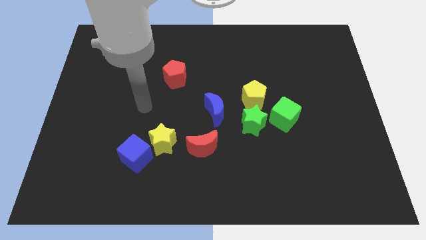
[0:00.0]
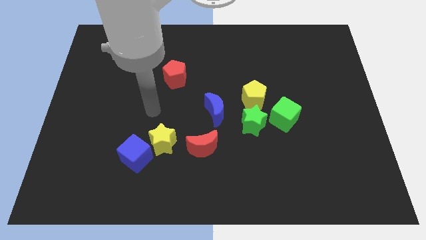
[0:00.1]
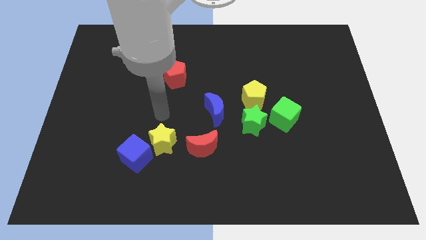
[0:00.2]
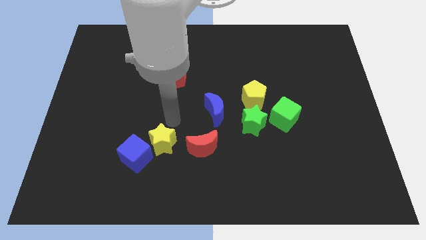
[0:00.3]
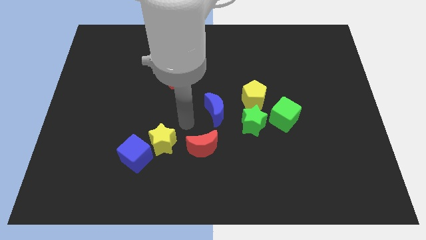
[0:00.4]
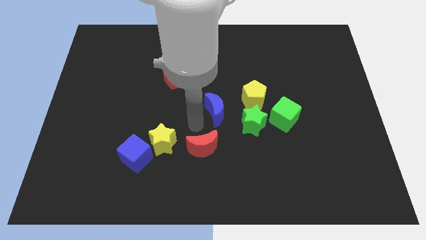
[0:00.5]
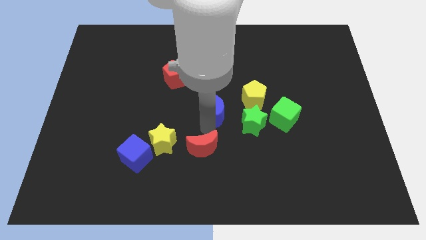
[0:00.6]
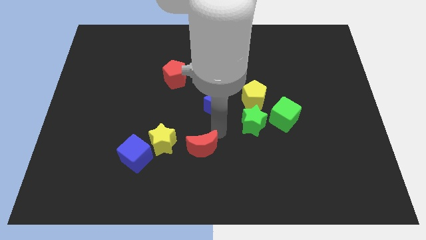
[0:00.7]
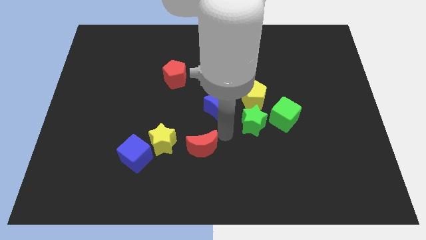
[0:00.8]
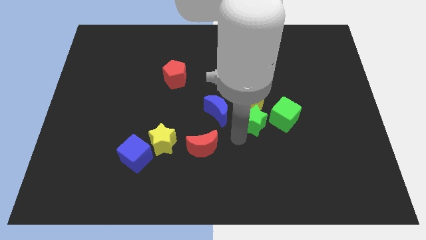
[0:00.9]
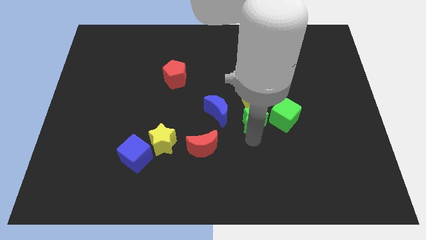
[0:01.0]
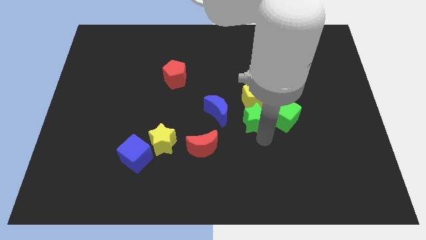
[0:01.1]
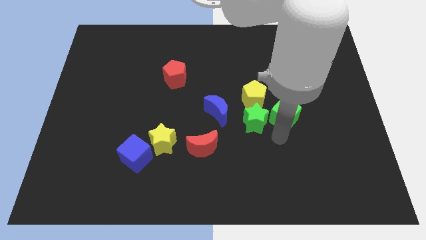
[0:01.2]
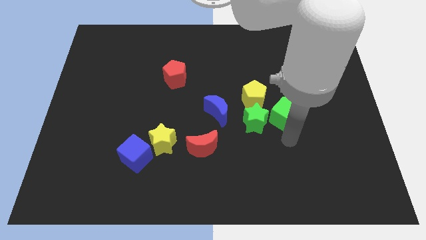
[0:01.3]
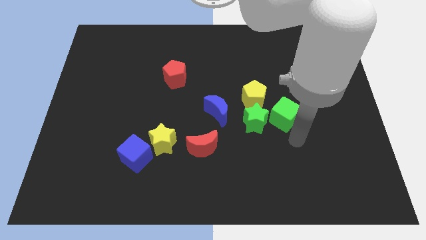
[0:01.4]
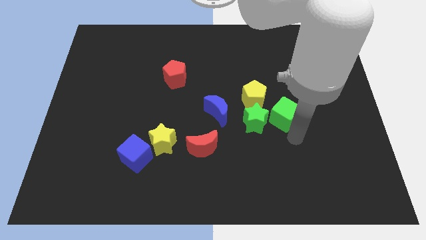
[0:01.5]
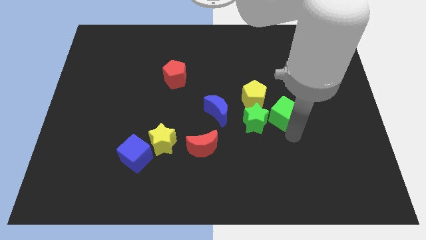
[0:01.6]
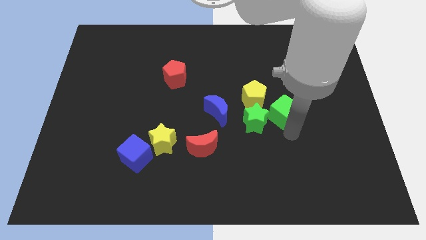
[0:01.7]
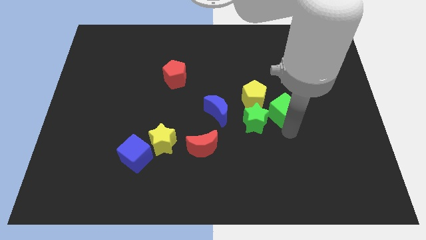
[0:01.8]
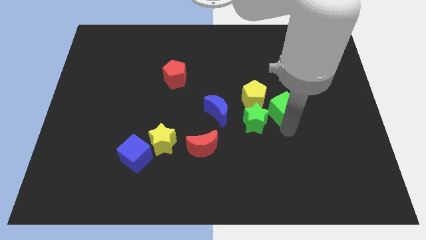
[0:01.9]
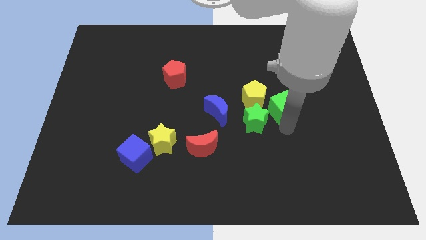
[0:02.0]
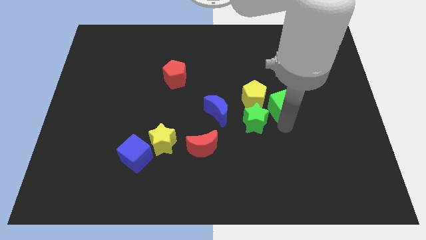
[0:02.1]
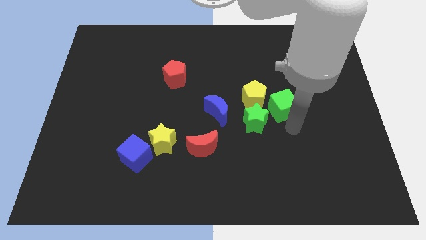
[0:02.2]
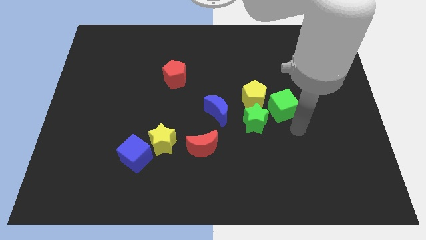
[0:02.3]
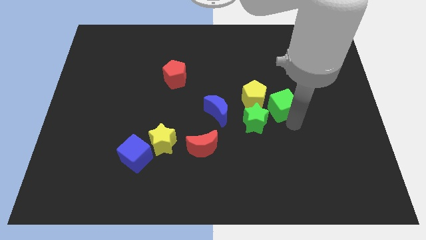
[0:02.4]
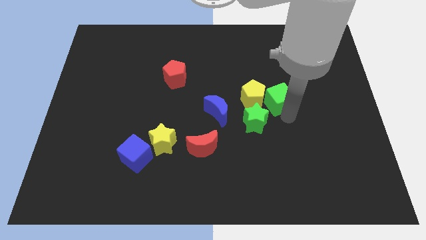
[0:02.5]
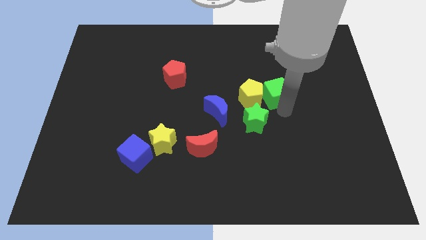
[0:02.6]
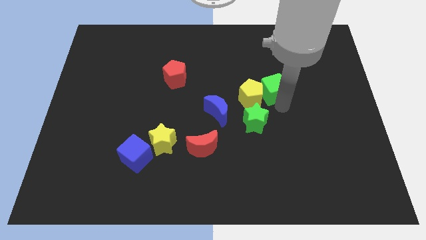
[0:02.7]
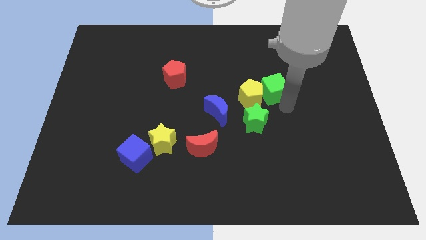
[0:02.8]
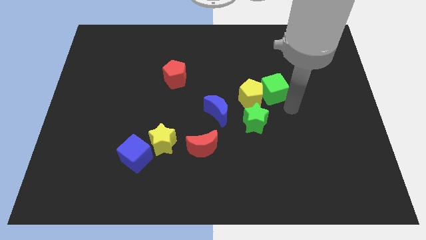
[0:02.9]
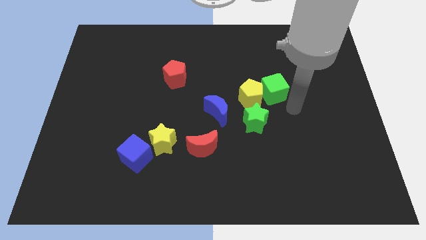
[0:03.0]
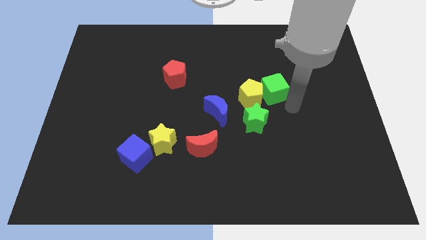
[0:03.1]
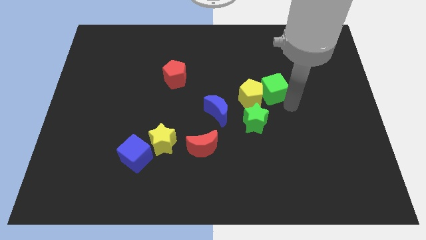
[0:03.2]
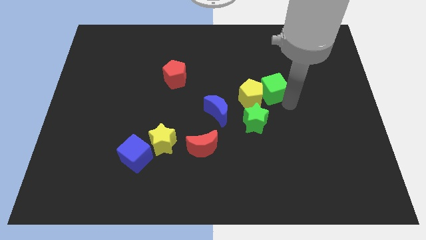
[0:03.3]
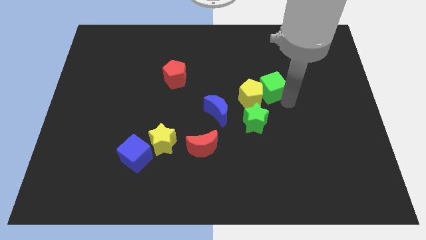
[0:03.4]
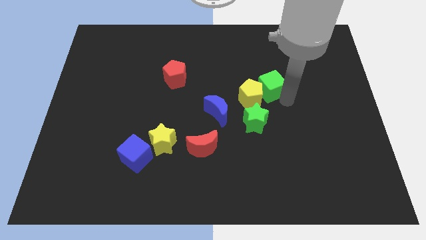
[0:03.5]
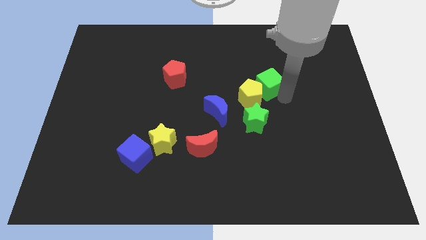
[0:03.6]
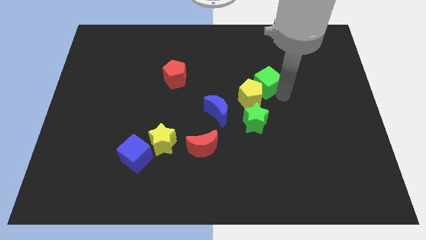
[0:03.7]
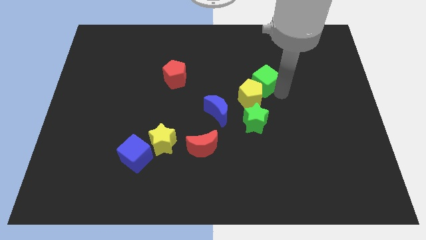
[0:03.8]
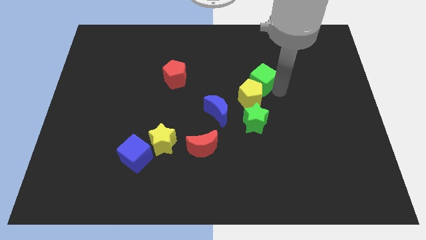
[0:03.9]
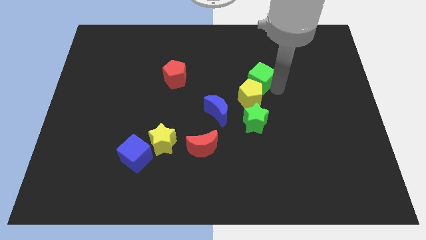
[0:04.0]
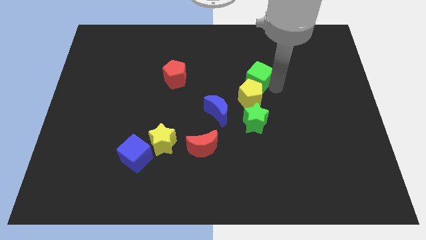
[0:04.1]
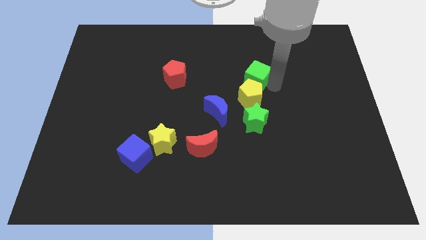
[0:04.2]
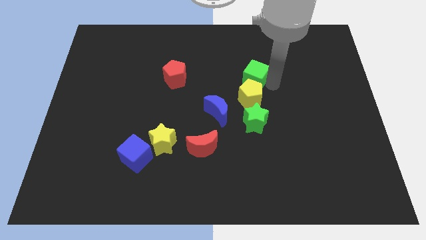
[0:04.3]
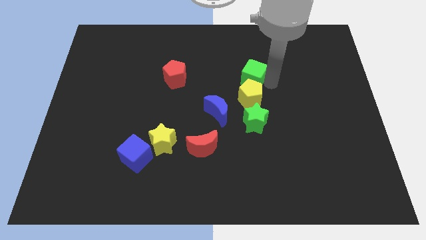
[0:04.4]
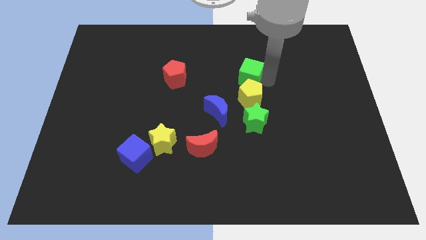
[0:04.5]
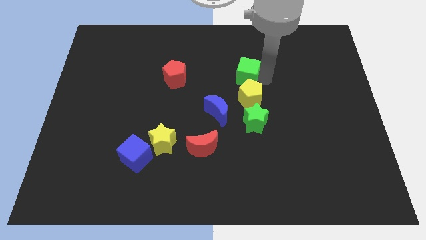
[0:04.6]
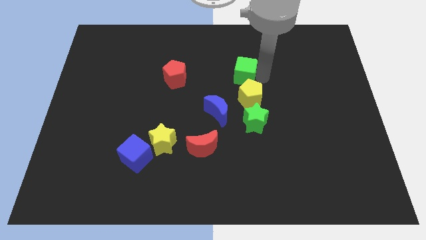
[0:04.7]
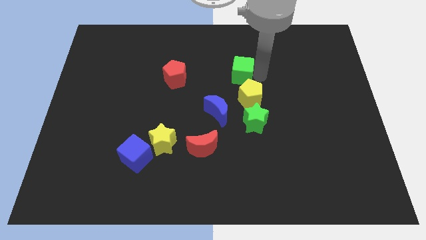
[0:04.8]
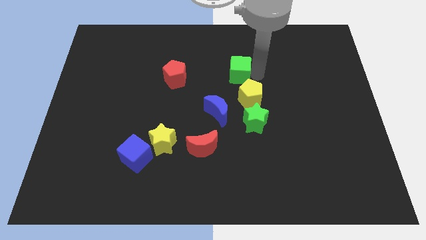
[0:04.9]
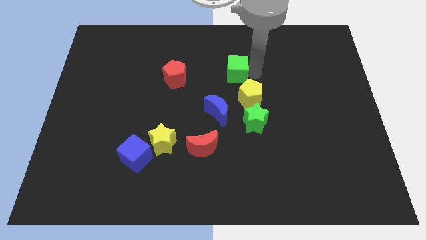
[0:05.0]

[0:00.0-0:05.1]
push the green cube above the blue moon

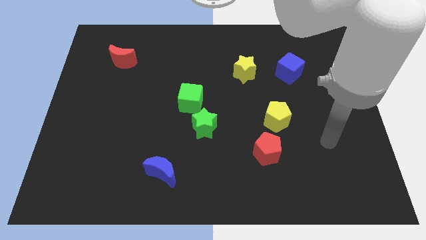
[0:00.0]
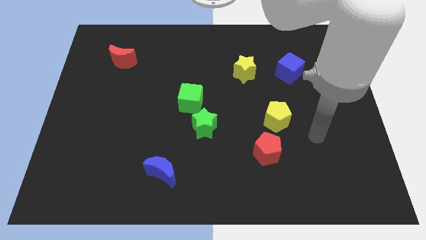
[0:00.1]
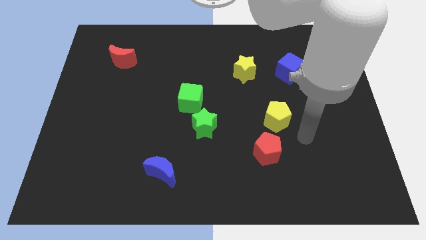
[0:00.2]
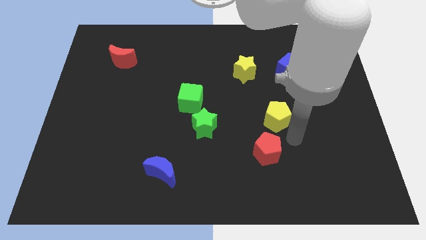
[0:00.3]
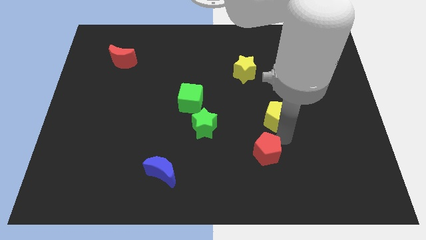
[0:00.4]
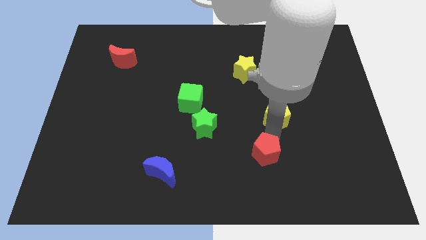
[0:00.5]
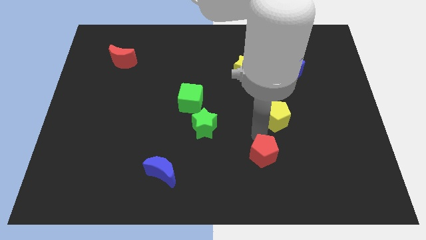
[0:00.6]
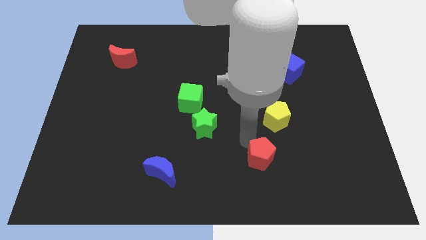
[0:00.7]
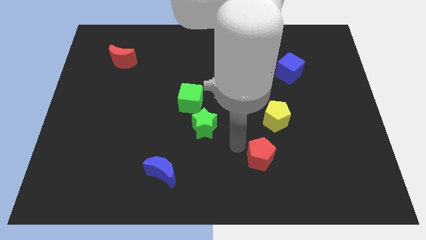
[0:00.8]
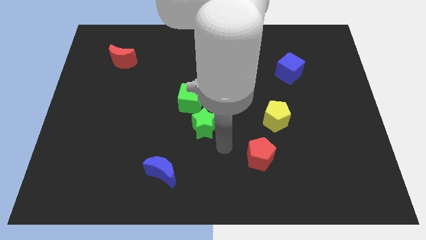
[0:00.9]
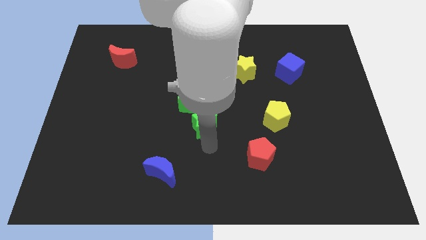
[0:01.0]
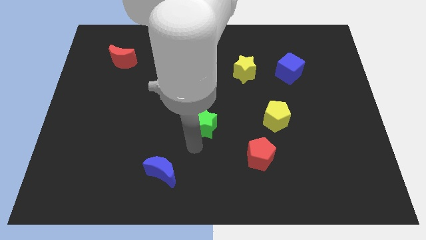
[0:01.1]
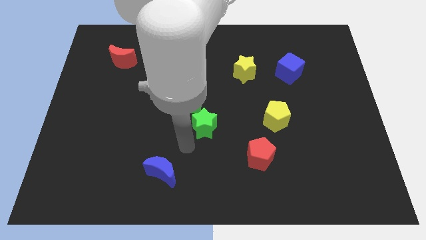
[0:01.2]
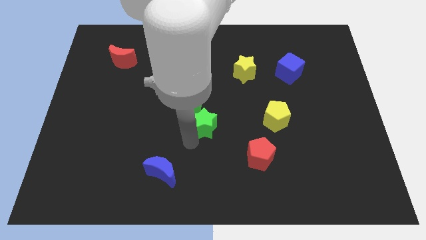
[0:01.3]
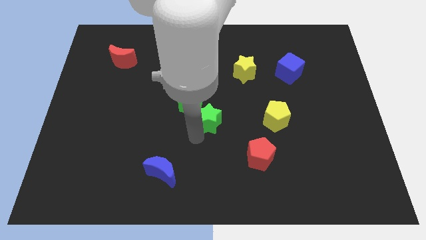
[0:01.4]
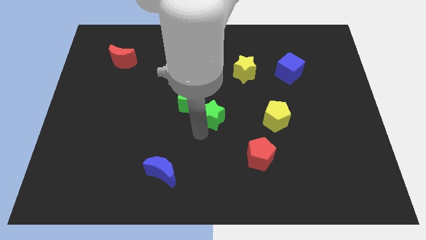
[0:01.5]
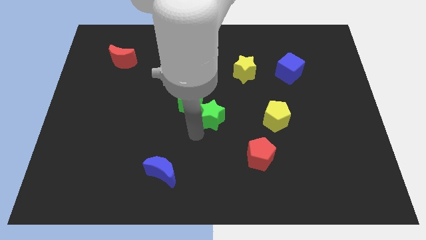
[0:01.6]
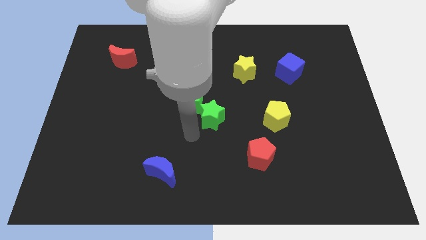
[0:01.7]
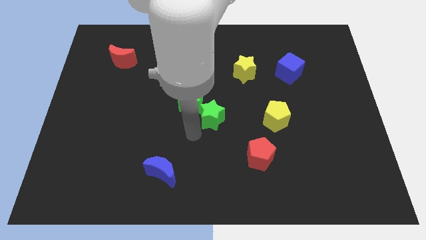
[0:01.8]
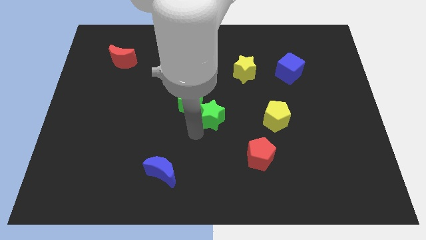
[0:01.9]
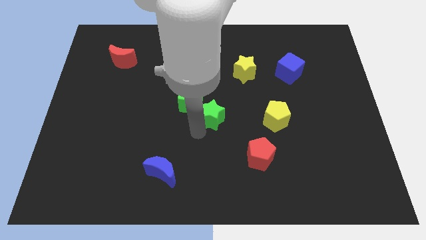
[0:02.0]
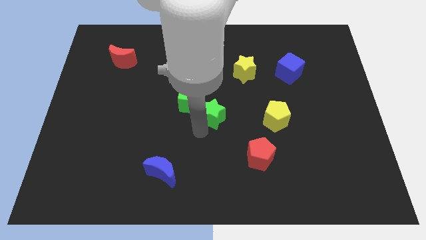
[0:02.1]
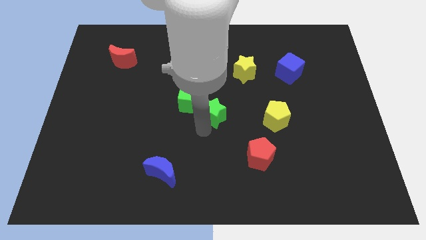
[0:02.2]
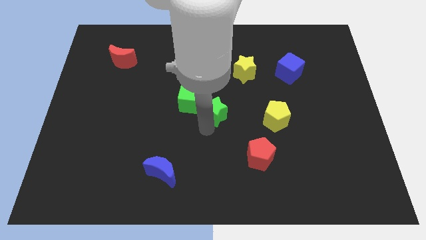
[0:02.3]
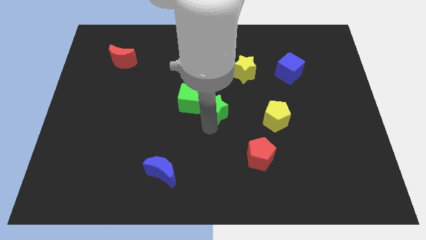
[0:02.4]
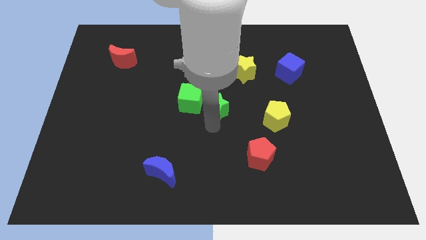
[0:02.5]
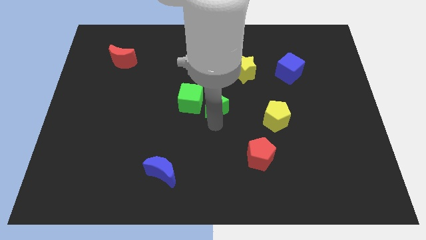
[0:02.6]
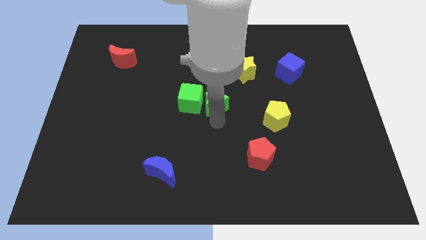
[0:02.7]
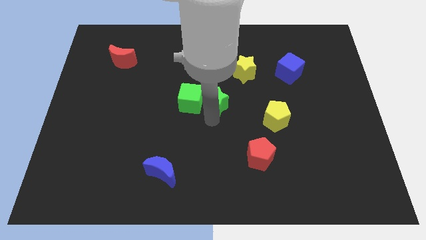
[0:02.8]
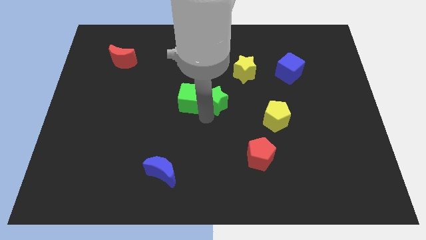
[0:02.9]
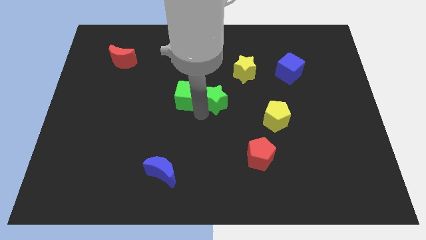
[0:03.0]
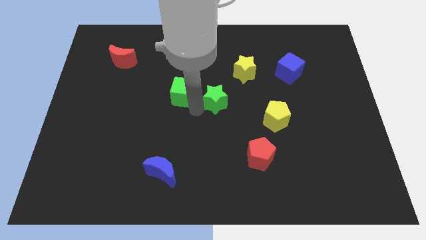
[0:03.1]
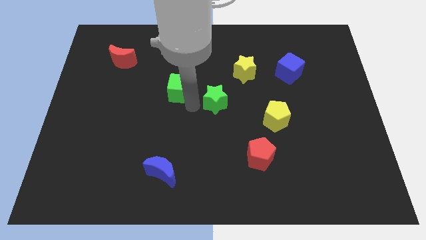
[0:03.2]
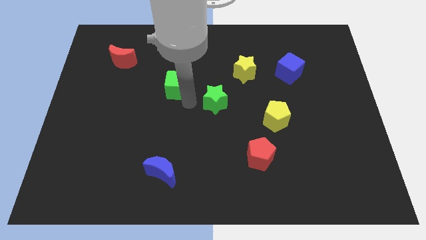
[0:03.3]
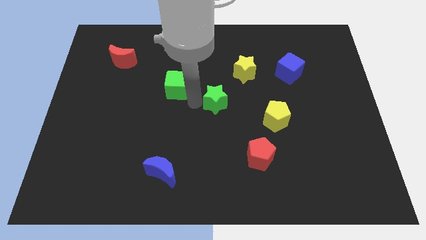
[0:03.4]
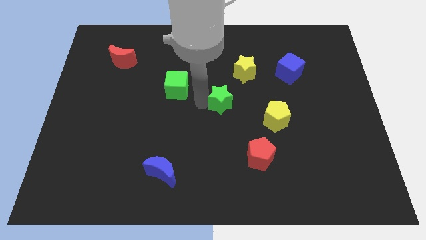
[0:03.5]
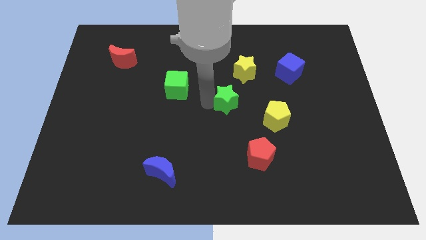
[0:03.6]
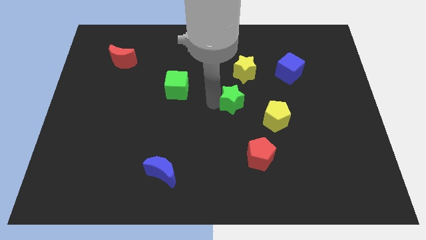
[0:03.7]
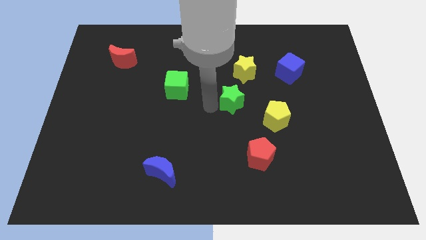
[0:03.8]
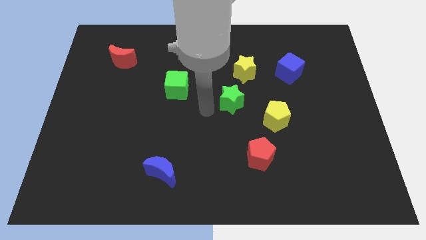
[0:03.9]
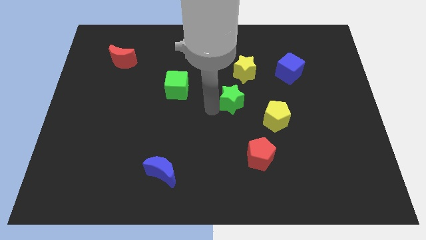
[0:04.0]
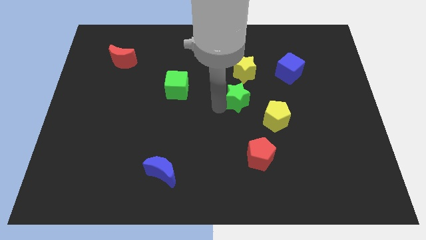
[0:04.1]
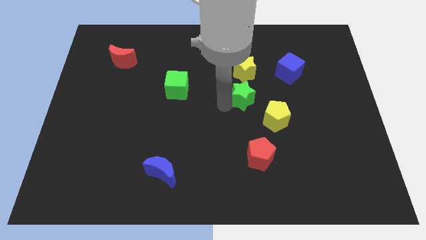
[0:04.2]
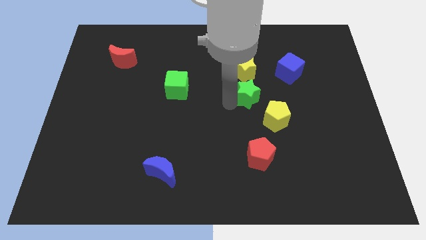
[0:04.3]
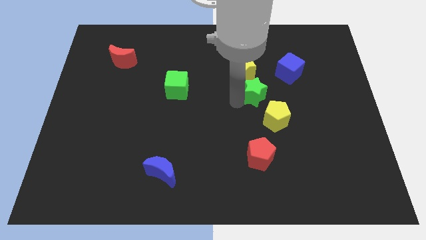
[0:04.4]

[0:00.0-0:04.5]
move the green star above the yellow pentagon
